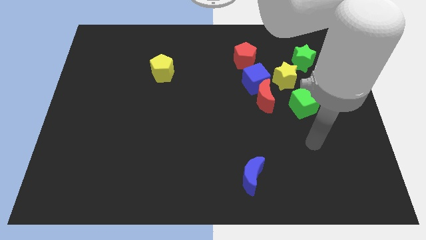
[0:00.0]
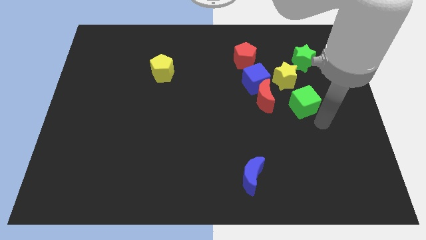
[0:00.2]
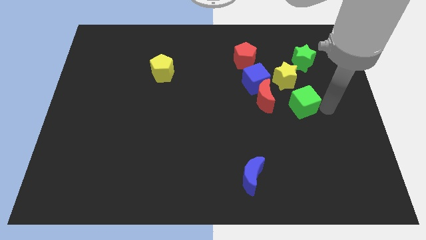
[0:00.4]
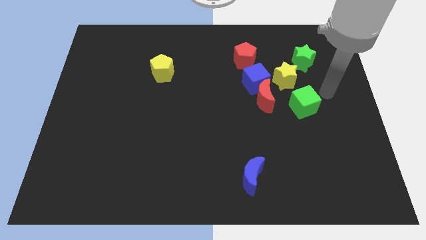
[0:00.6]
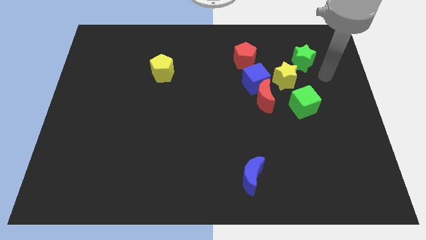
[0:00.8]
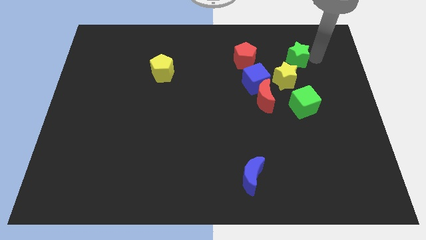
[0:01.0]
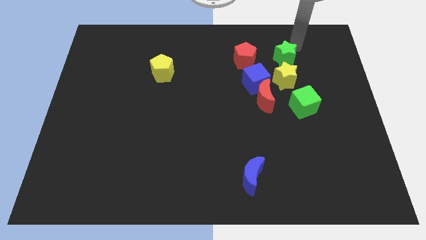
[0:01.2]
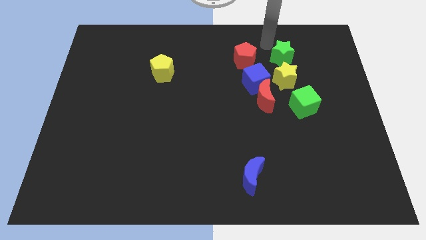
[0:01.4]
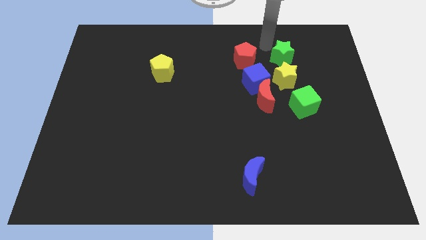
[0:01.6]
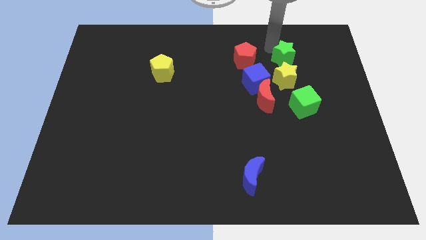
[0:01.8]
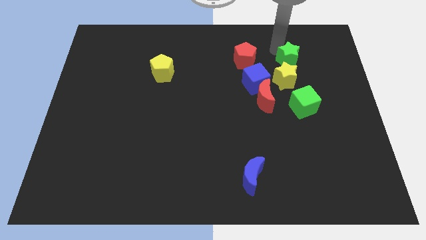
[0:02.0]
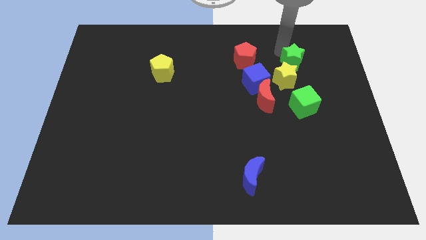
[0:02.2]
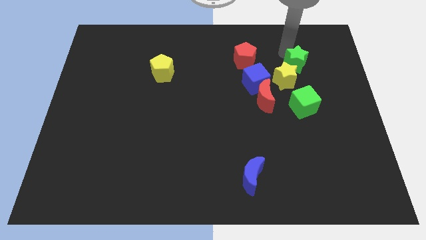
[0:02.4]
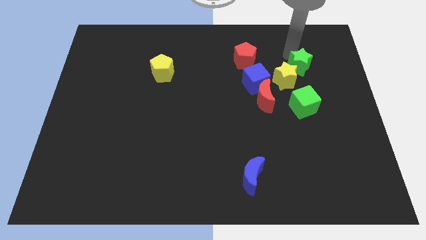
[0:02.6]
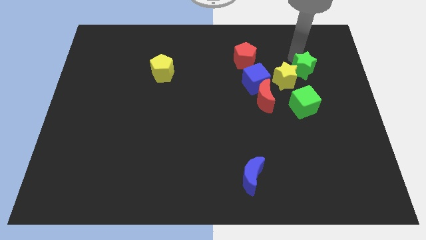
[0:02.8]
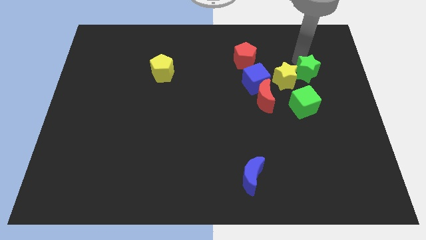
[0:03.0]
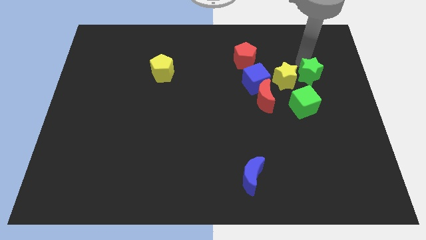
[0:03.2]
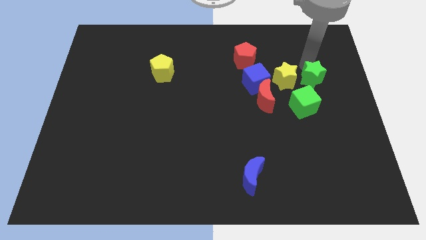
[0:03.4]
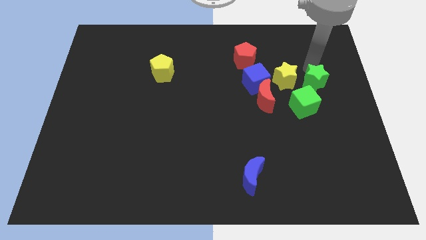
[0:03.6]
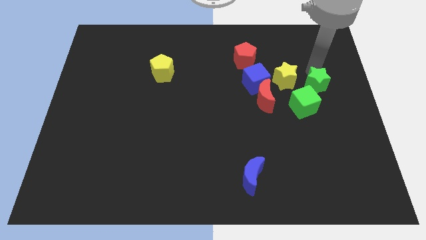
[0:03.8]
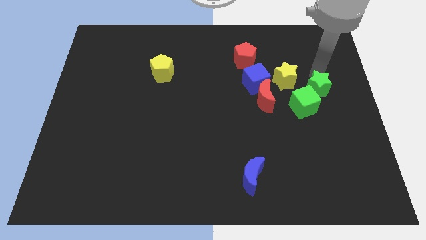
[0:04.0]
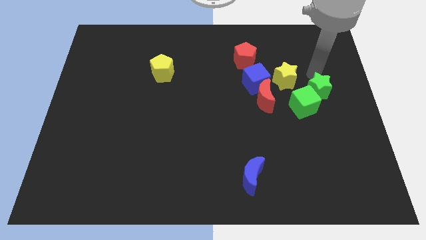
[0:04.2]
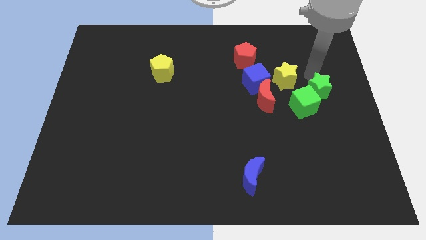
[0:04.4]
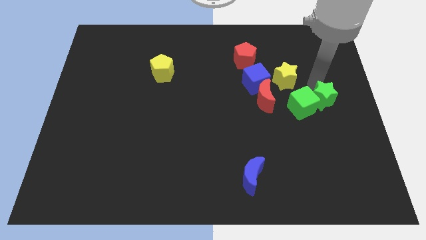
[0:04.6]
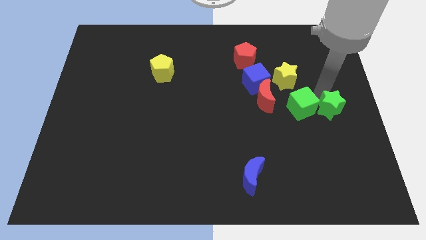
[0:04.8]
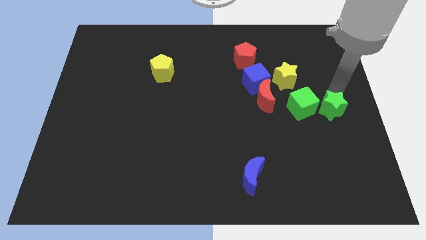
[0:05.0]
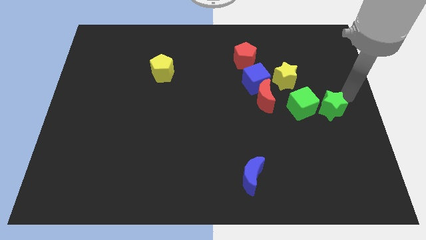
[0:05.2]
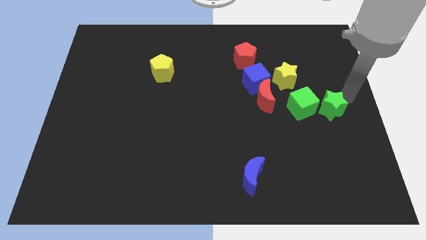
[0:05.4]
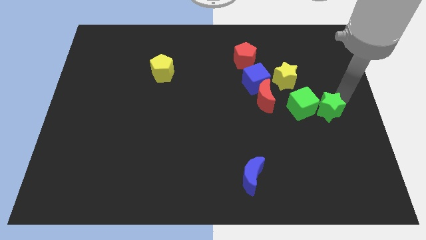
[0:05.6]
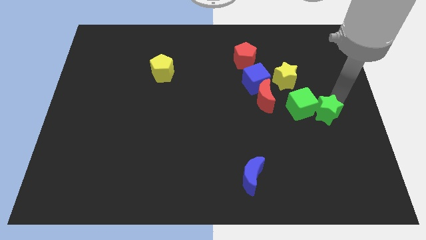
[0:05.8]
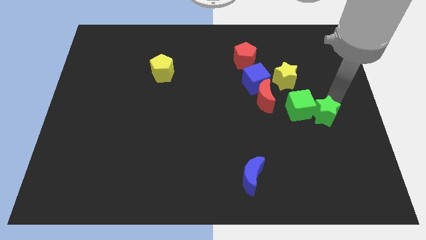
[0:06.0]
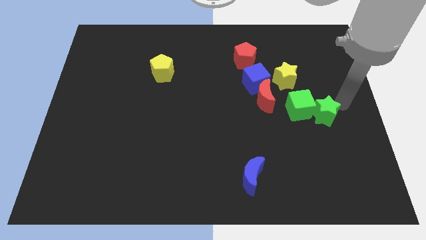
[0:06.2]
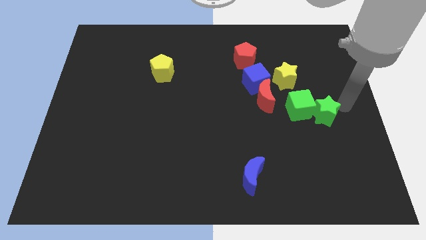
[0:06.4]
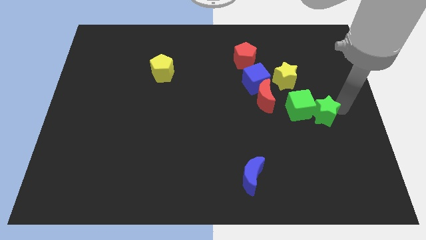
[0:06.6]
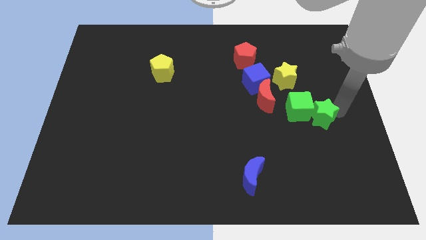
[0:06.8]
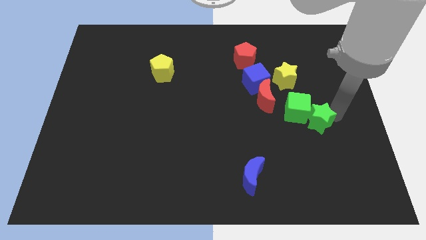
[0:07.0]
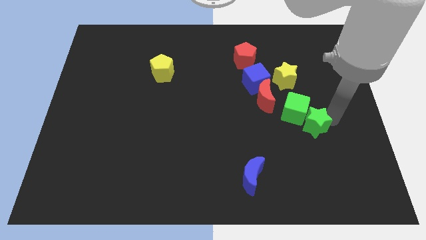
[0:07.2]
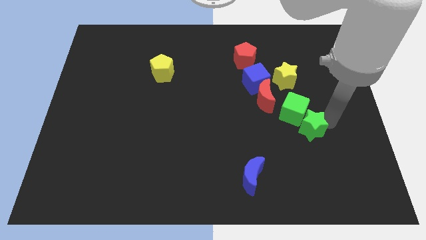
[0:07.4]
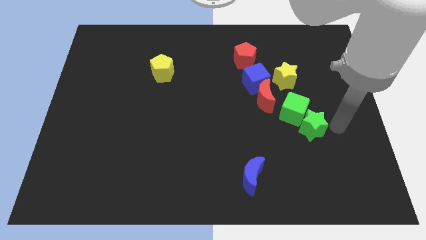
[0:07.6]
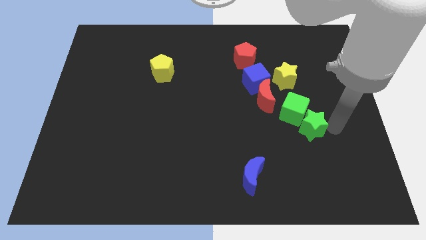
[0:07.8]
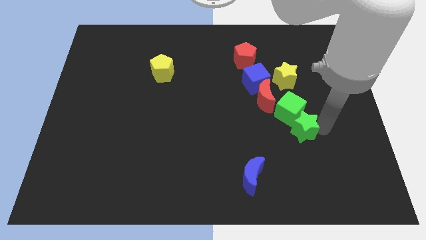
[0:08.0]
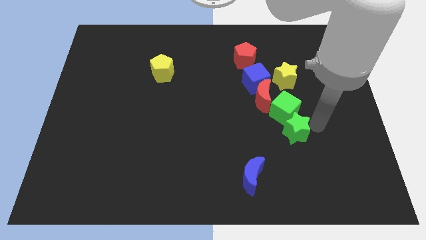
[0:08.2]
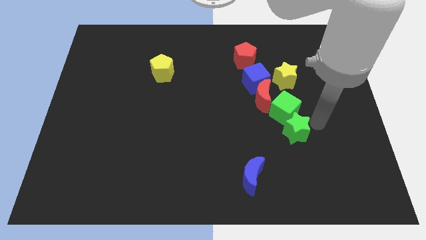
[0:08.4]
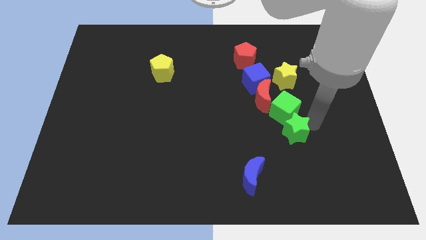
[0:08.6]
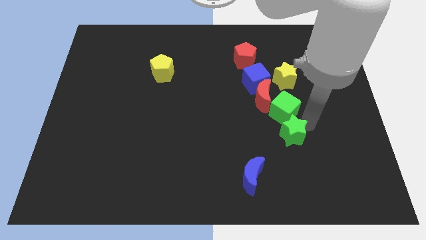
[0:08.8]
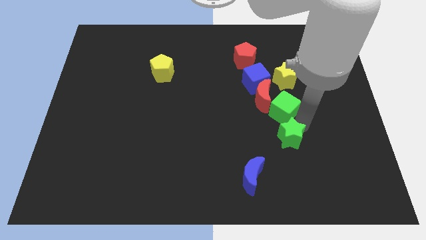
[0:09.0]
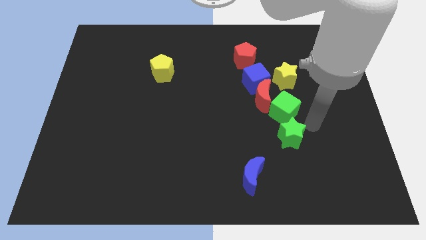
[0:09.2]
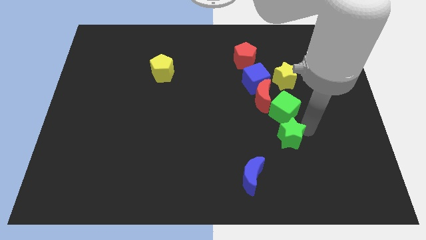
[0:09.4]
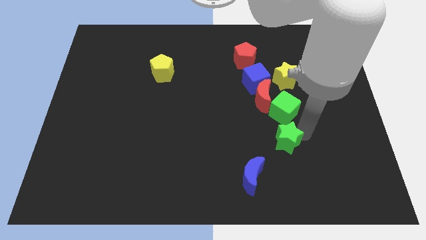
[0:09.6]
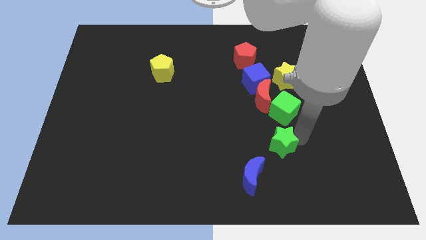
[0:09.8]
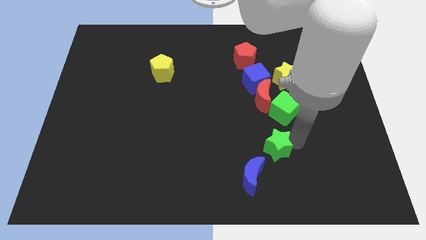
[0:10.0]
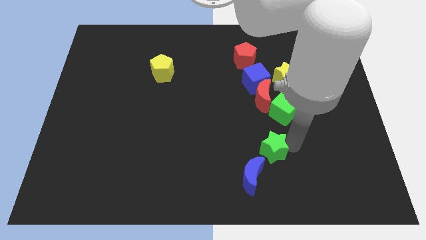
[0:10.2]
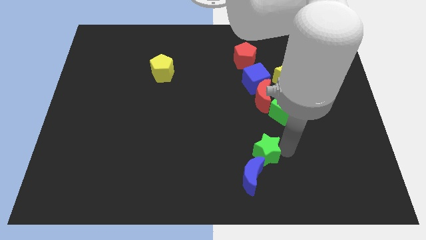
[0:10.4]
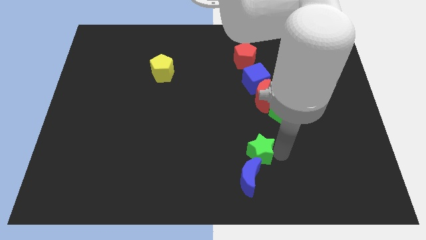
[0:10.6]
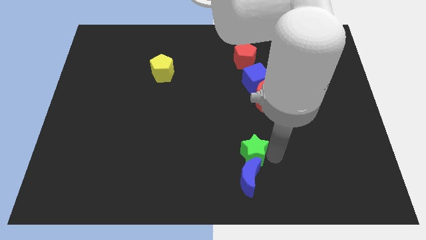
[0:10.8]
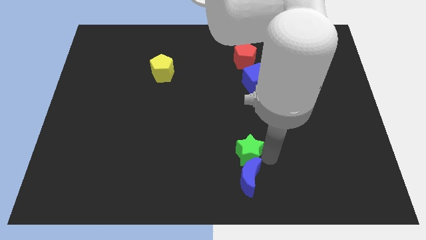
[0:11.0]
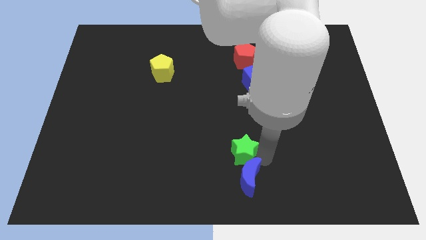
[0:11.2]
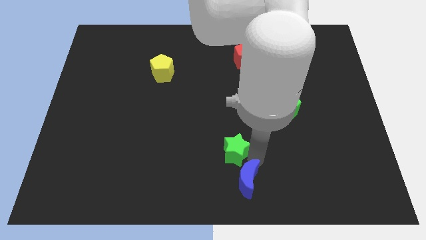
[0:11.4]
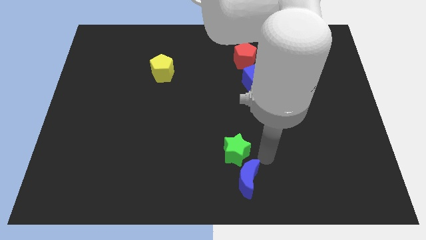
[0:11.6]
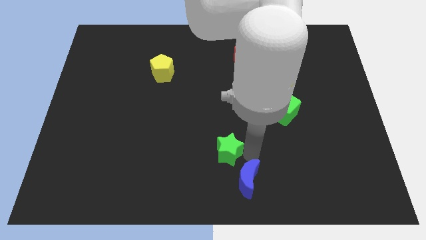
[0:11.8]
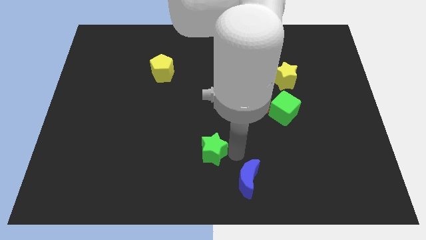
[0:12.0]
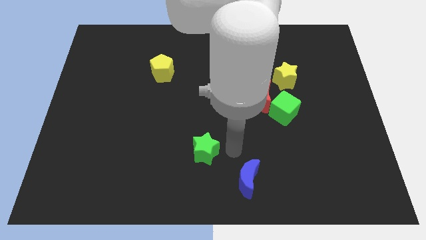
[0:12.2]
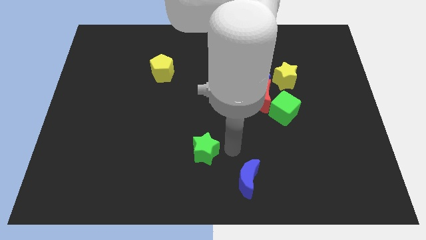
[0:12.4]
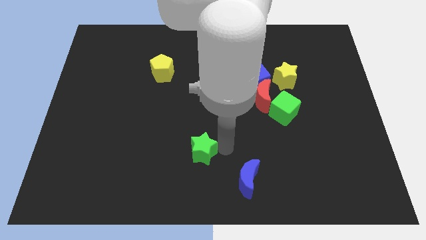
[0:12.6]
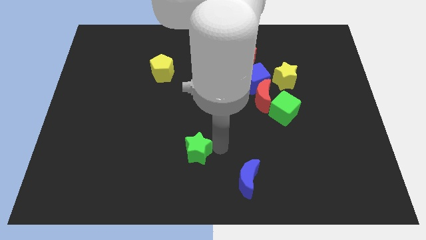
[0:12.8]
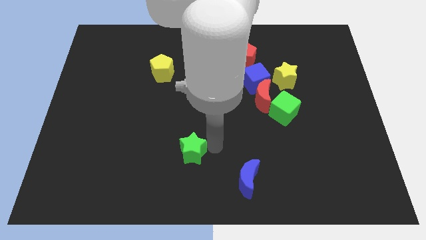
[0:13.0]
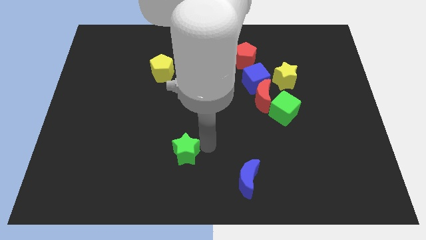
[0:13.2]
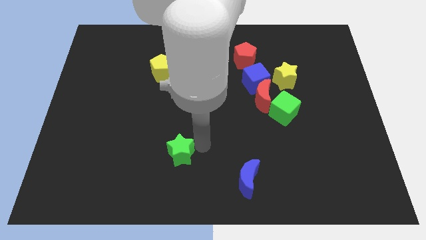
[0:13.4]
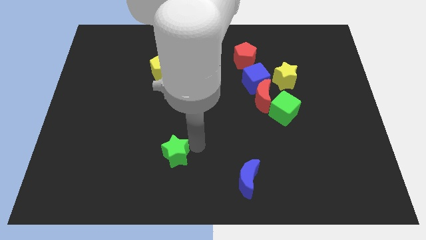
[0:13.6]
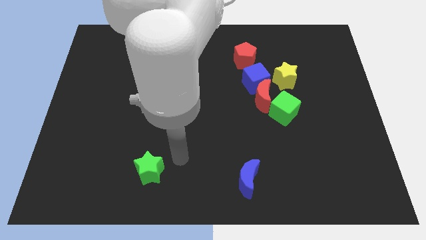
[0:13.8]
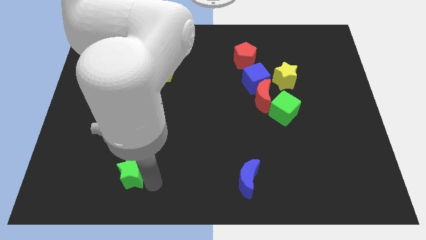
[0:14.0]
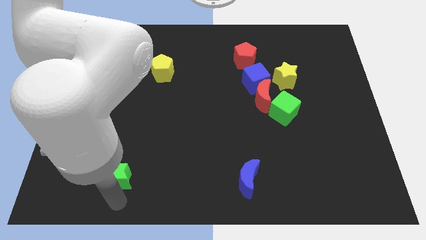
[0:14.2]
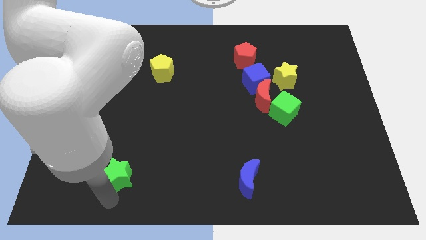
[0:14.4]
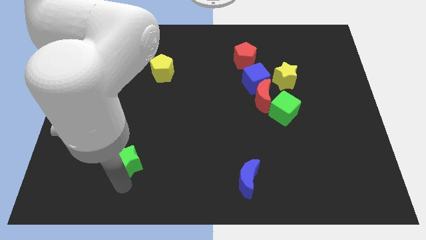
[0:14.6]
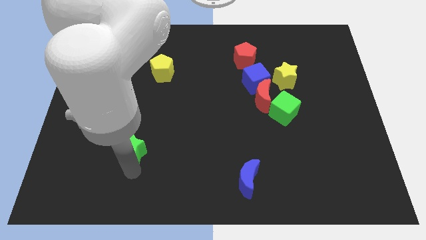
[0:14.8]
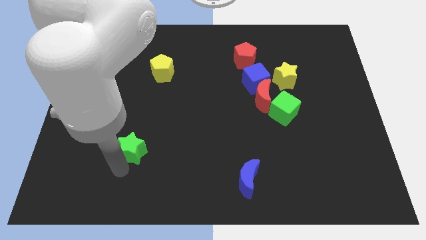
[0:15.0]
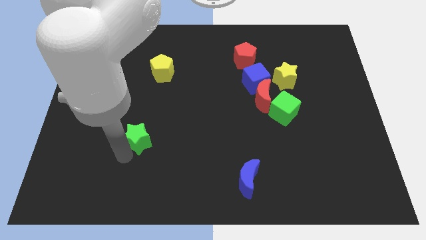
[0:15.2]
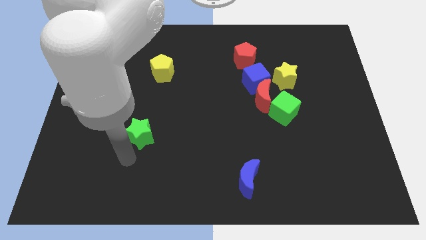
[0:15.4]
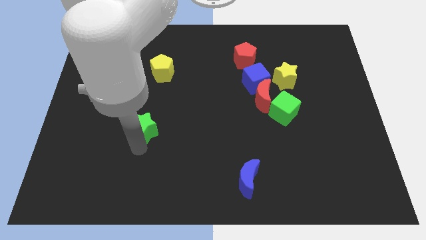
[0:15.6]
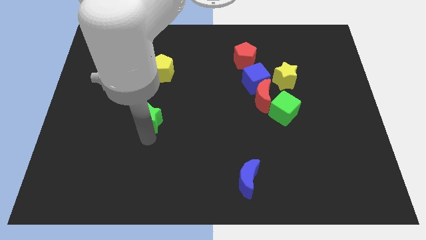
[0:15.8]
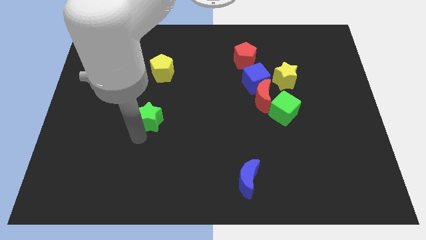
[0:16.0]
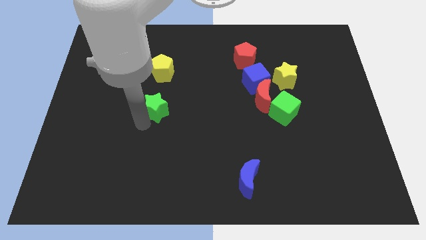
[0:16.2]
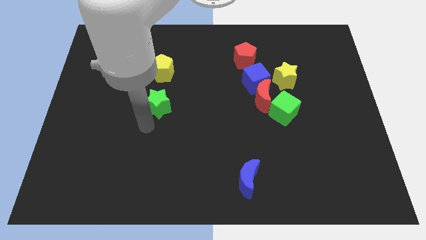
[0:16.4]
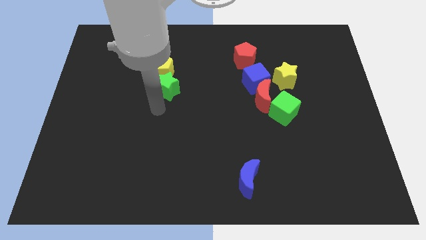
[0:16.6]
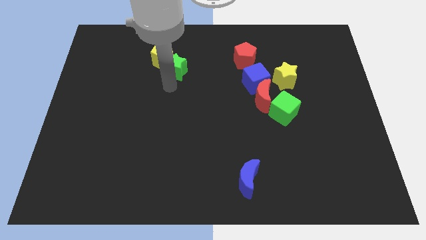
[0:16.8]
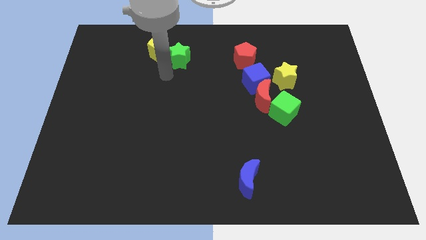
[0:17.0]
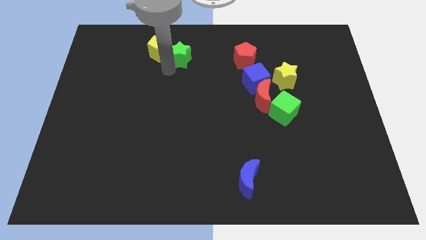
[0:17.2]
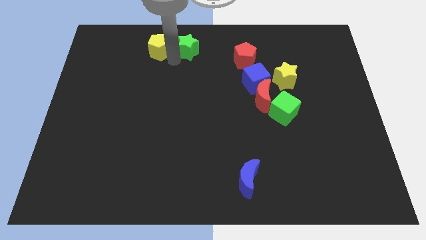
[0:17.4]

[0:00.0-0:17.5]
push the green star to the top side

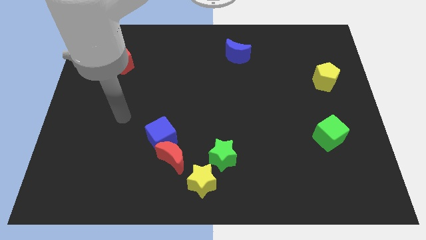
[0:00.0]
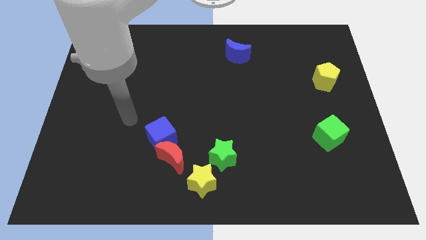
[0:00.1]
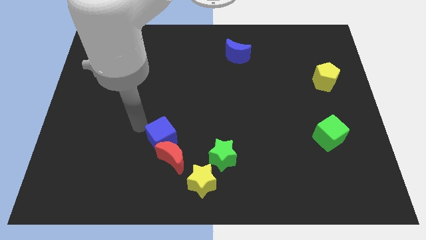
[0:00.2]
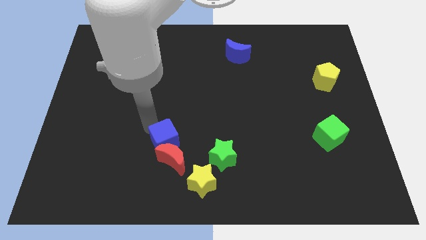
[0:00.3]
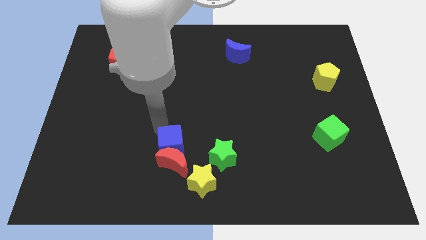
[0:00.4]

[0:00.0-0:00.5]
move the red moon to the bottom
